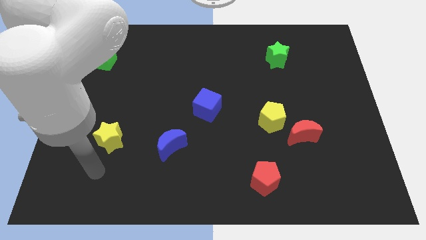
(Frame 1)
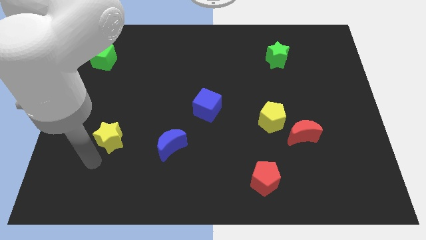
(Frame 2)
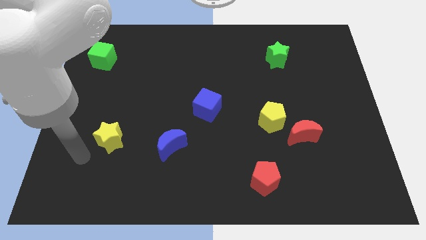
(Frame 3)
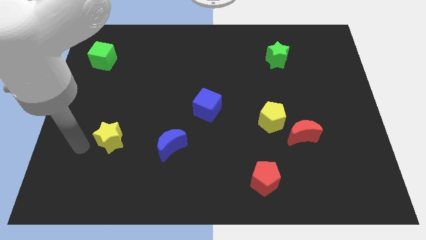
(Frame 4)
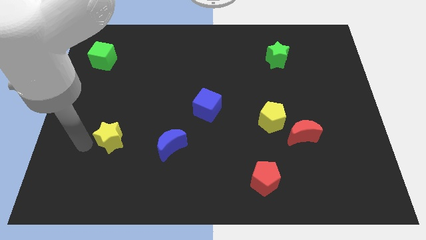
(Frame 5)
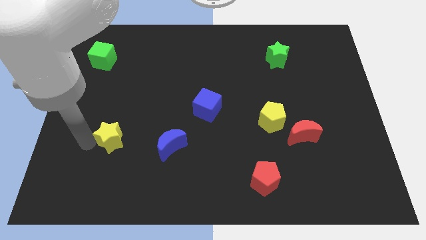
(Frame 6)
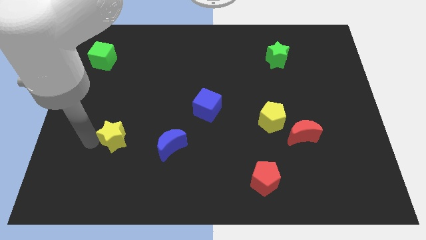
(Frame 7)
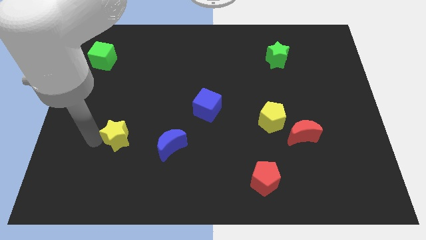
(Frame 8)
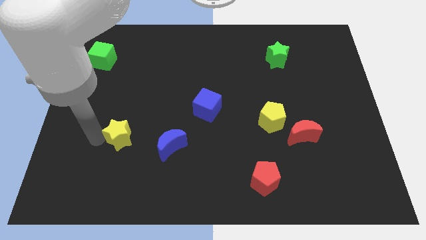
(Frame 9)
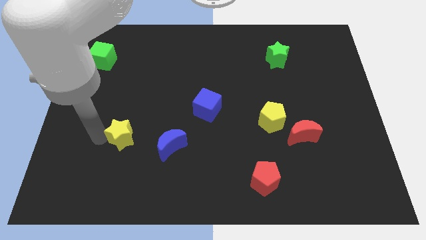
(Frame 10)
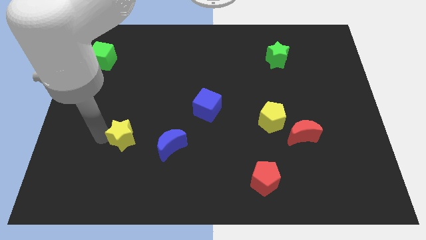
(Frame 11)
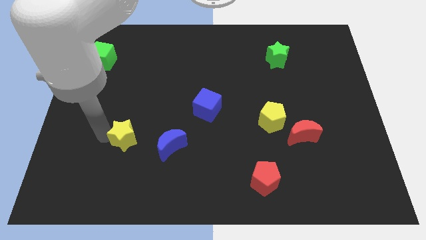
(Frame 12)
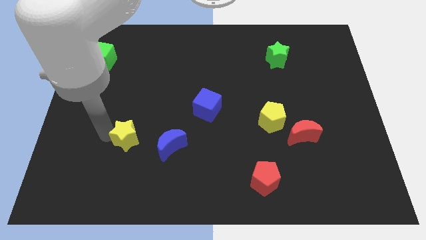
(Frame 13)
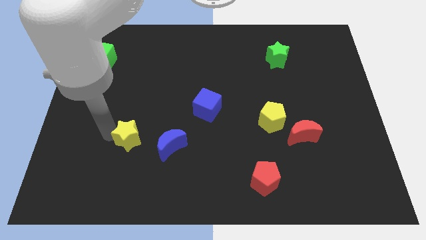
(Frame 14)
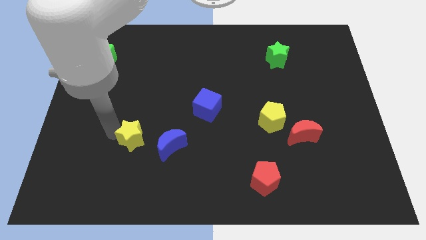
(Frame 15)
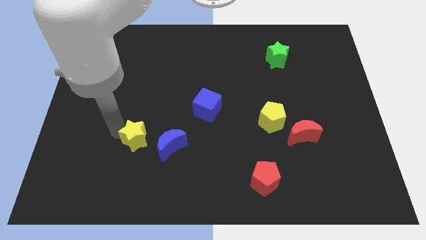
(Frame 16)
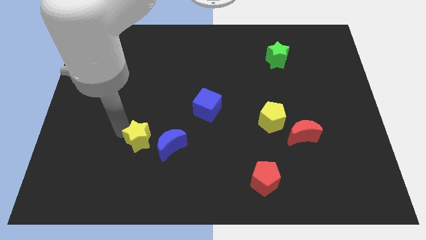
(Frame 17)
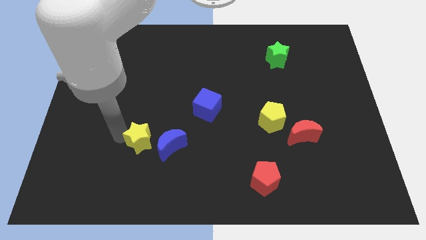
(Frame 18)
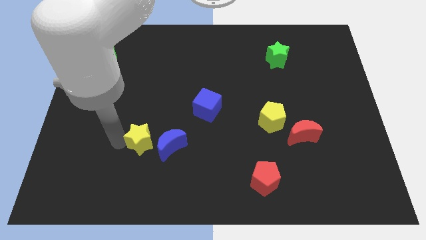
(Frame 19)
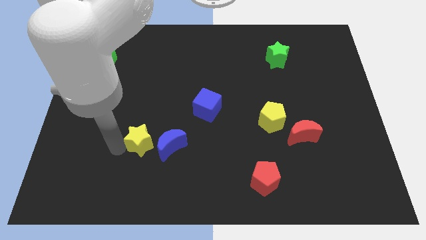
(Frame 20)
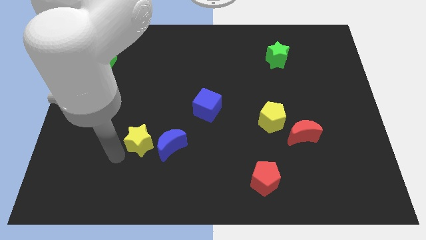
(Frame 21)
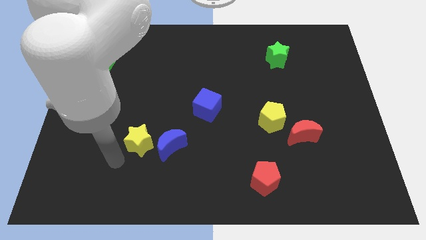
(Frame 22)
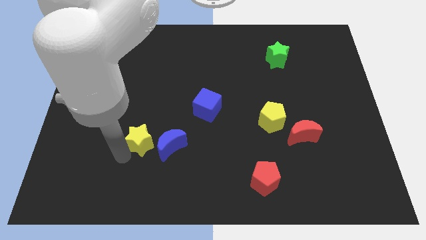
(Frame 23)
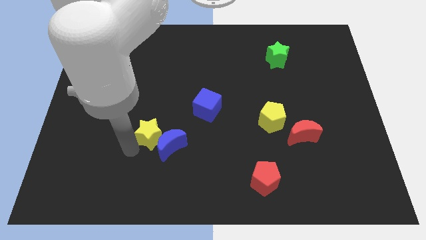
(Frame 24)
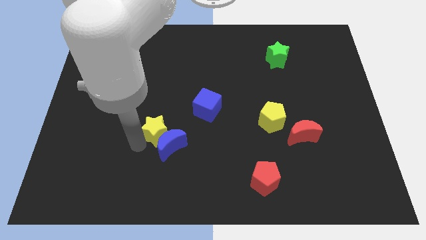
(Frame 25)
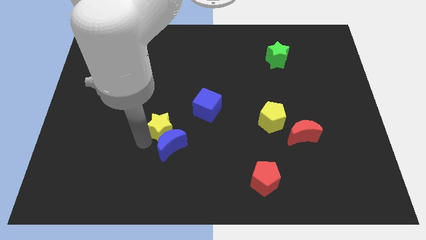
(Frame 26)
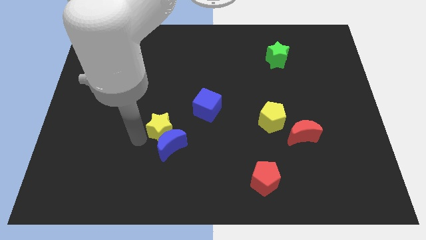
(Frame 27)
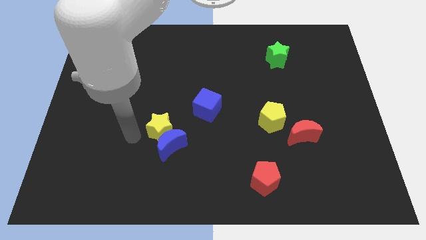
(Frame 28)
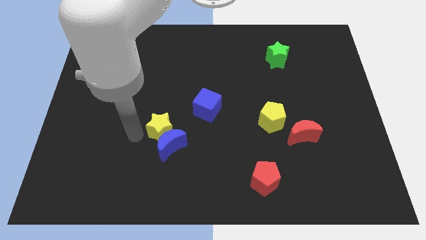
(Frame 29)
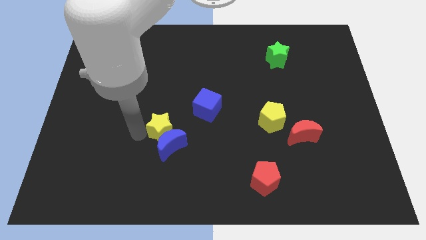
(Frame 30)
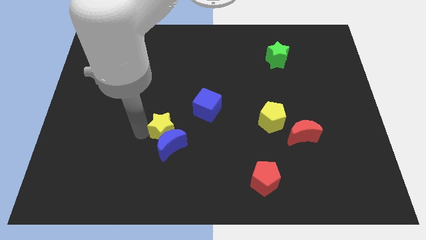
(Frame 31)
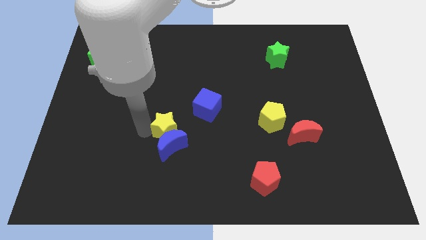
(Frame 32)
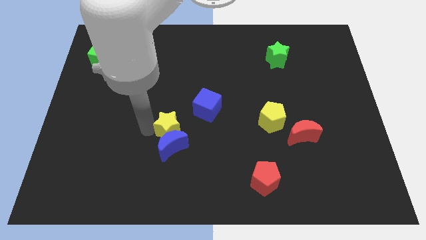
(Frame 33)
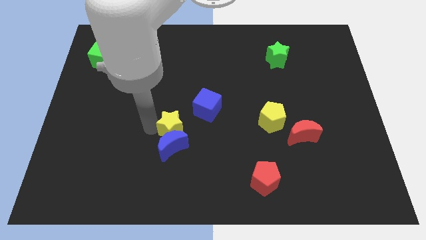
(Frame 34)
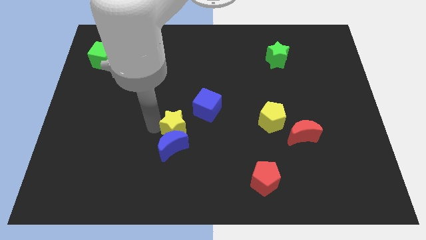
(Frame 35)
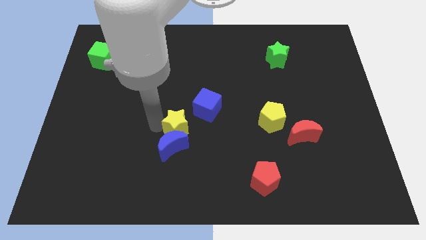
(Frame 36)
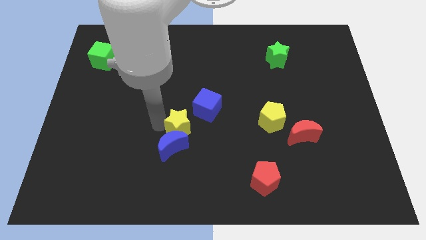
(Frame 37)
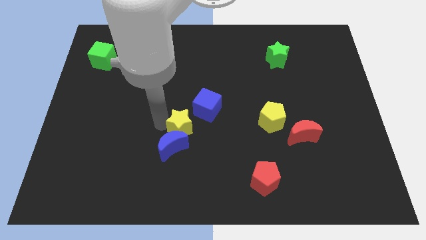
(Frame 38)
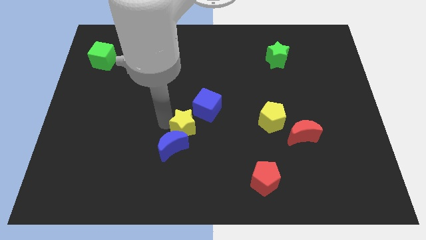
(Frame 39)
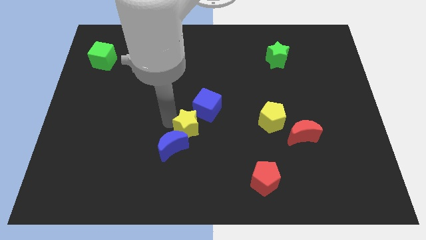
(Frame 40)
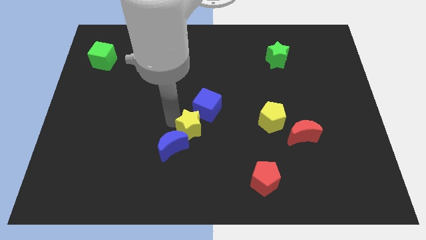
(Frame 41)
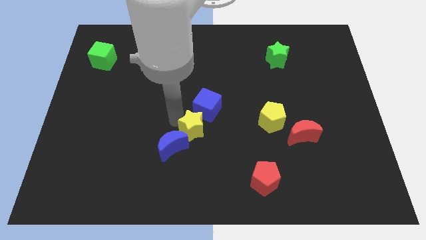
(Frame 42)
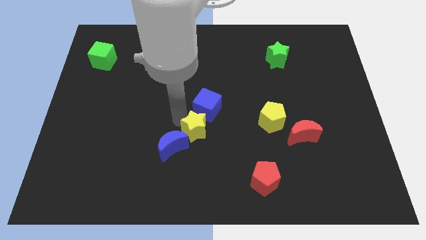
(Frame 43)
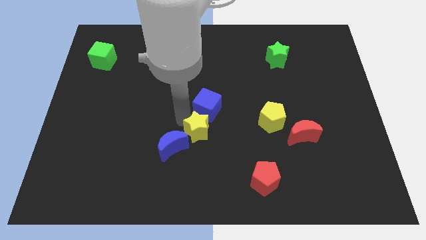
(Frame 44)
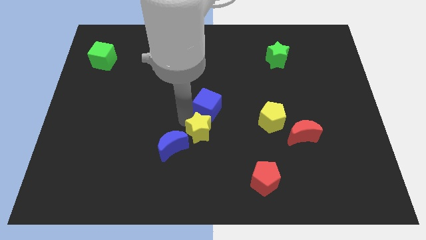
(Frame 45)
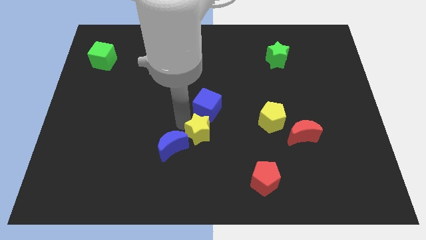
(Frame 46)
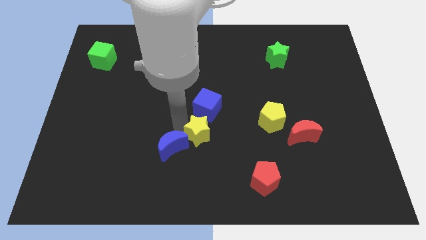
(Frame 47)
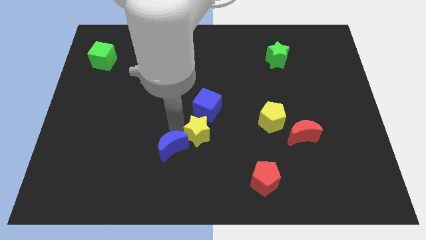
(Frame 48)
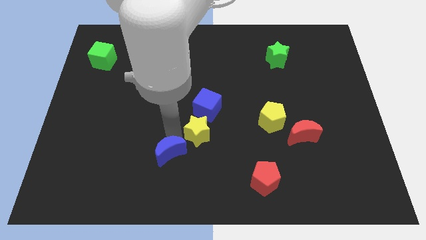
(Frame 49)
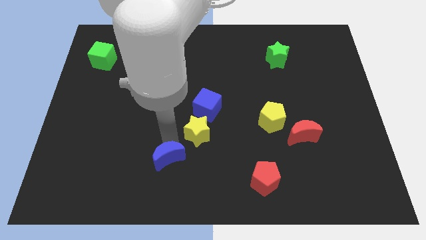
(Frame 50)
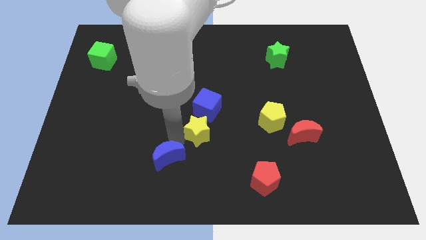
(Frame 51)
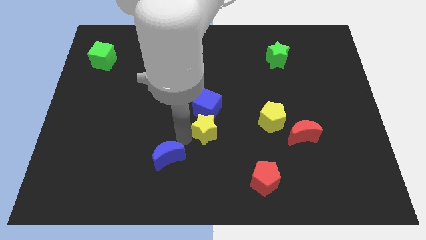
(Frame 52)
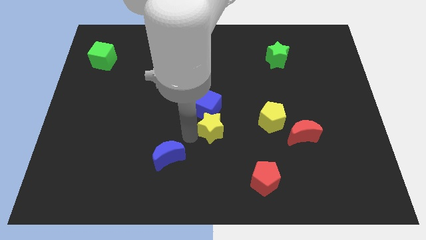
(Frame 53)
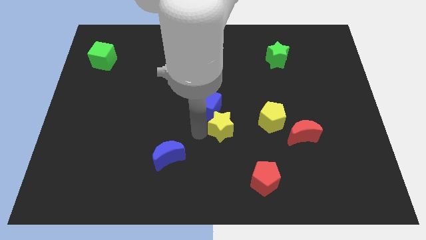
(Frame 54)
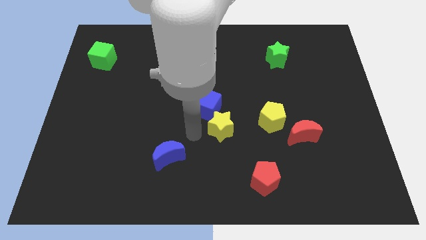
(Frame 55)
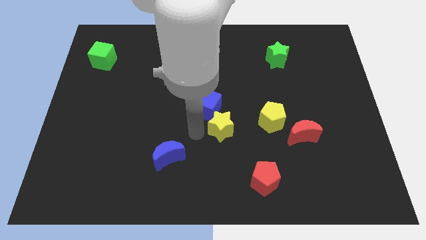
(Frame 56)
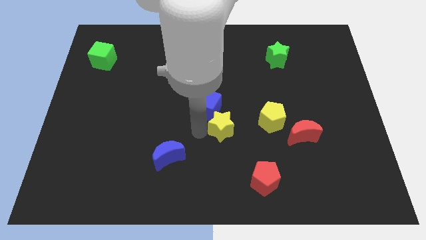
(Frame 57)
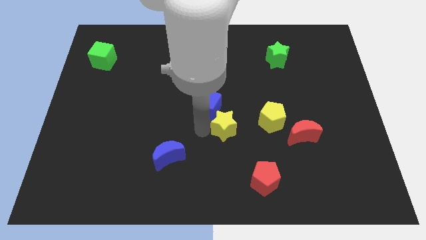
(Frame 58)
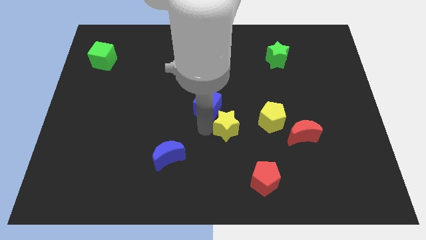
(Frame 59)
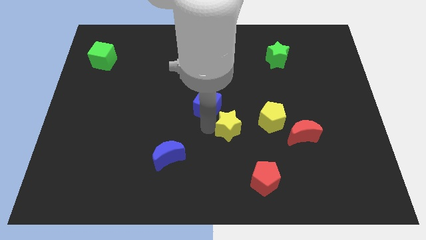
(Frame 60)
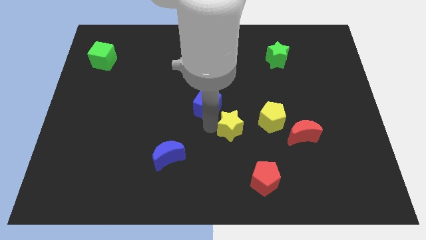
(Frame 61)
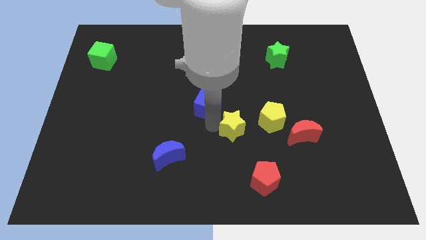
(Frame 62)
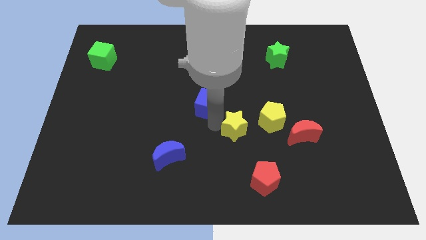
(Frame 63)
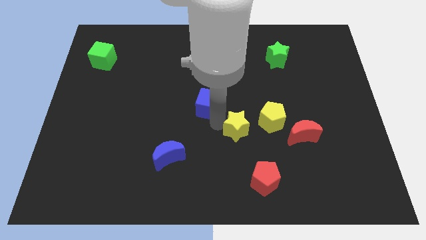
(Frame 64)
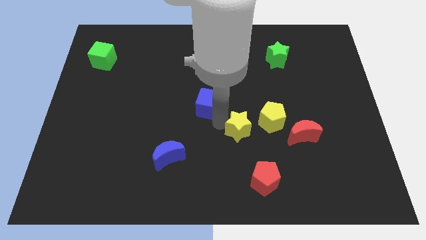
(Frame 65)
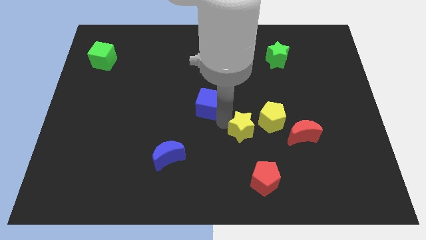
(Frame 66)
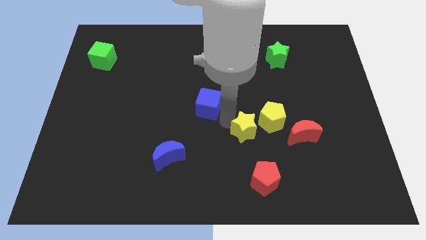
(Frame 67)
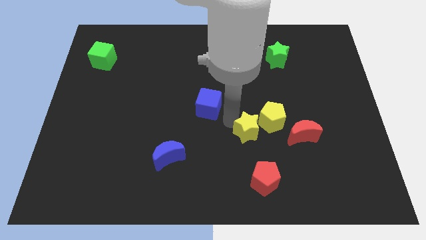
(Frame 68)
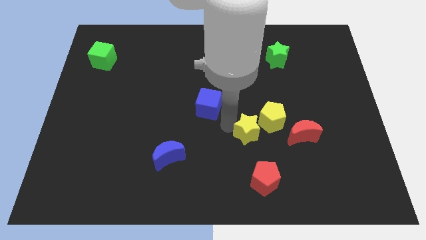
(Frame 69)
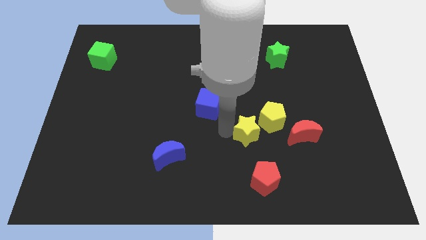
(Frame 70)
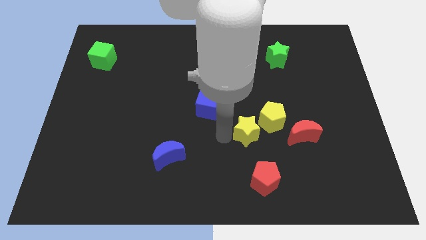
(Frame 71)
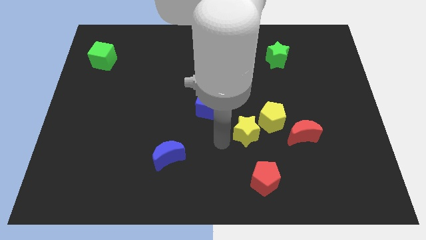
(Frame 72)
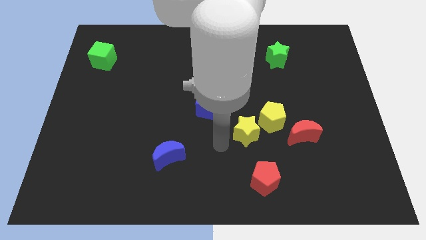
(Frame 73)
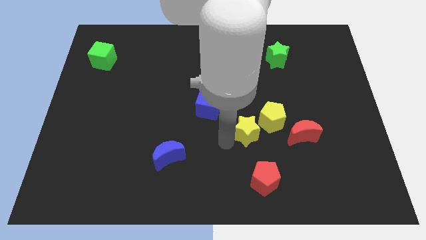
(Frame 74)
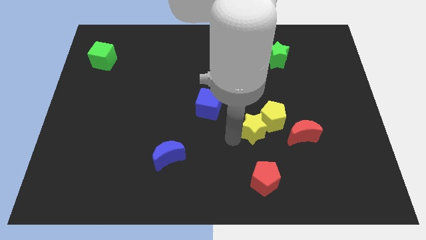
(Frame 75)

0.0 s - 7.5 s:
move the yellow star to the yellow pentagon
